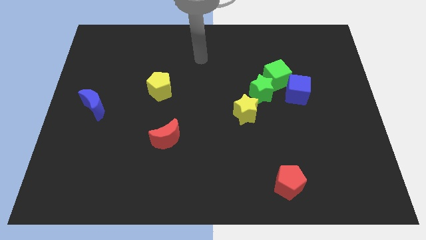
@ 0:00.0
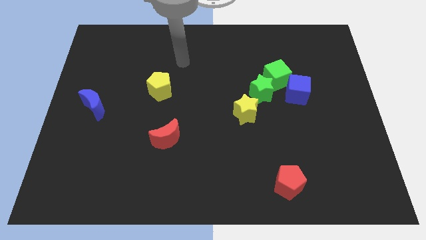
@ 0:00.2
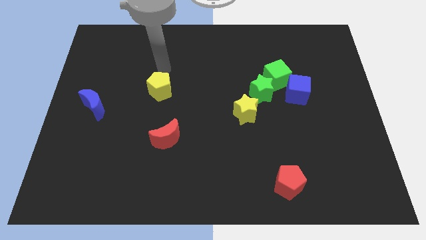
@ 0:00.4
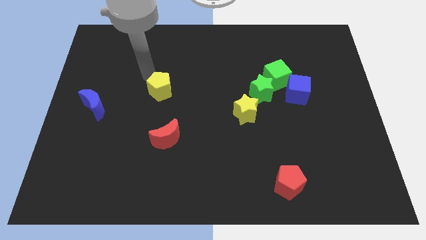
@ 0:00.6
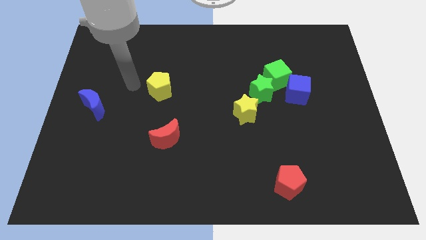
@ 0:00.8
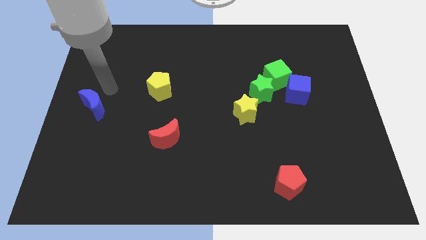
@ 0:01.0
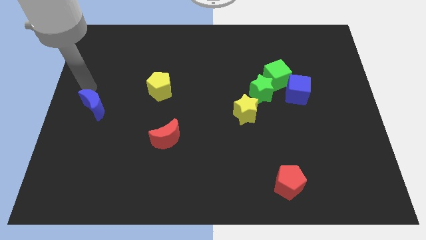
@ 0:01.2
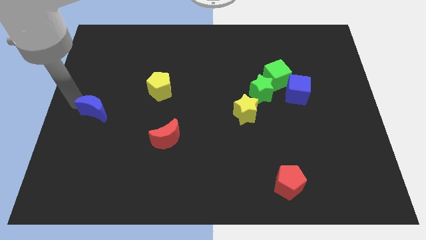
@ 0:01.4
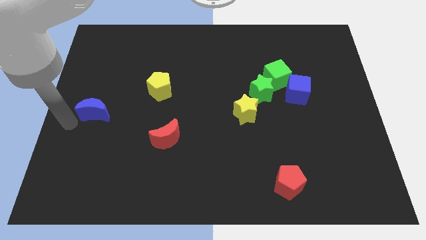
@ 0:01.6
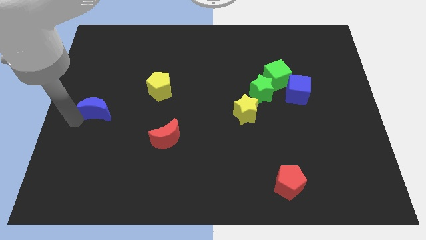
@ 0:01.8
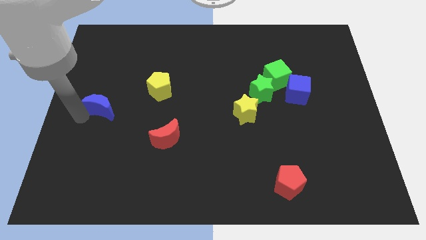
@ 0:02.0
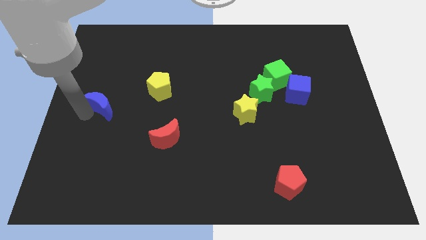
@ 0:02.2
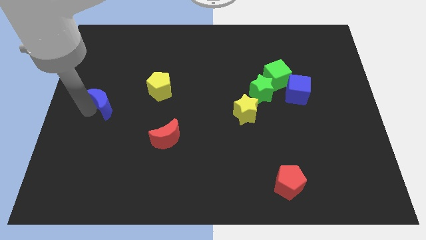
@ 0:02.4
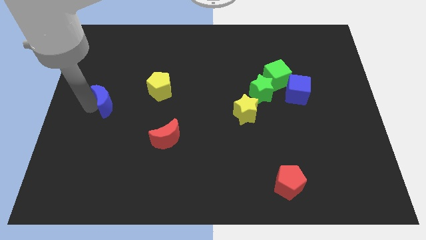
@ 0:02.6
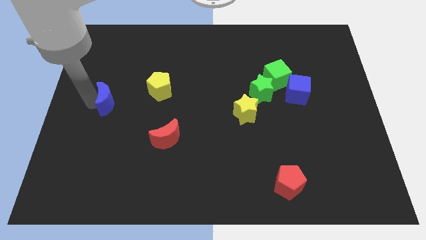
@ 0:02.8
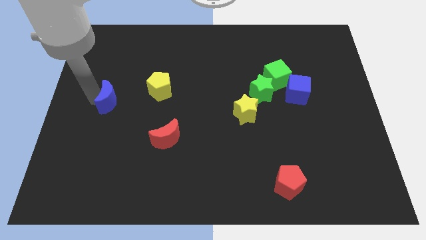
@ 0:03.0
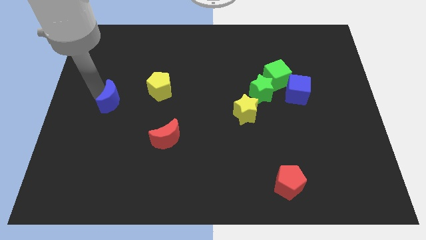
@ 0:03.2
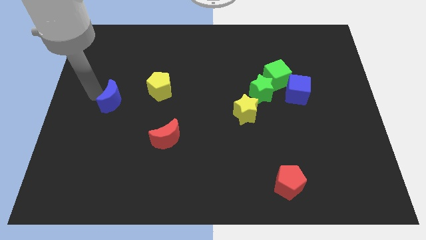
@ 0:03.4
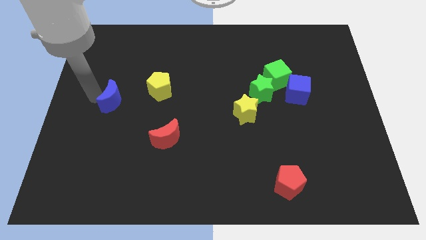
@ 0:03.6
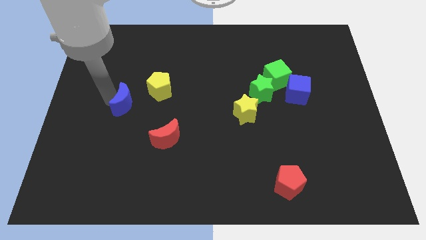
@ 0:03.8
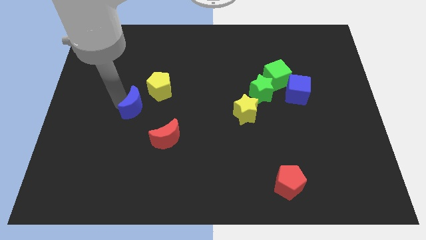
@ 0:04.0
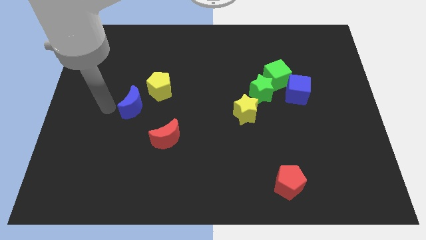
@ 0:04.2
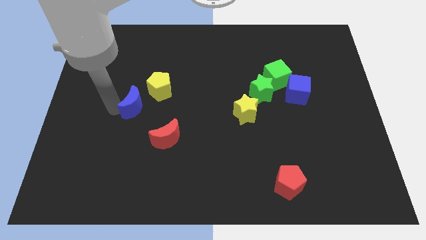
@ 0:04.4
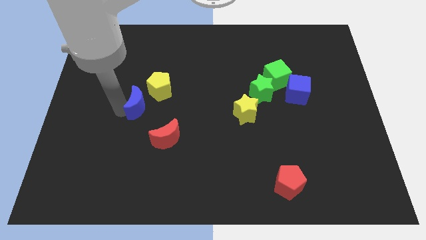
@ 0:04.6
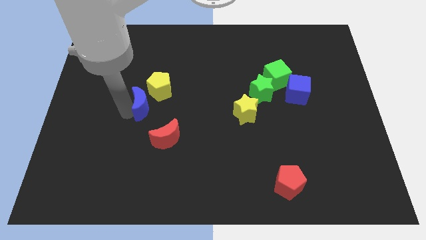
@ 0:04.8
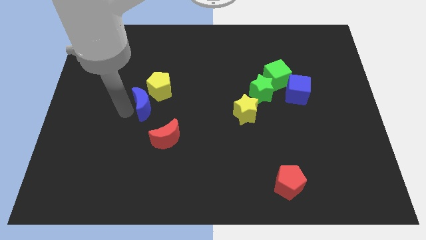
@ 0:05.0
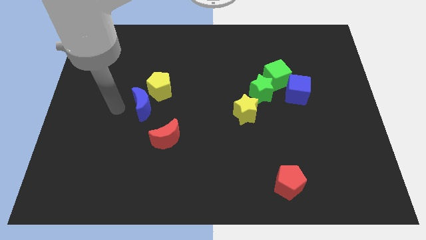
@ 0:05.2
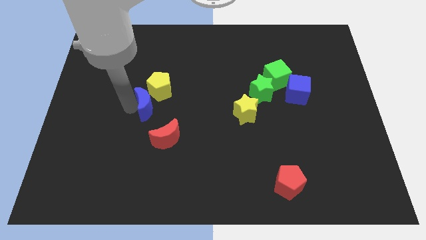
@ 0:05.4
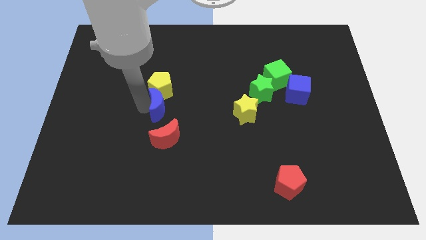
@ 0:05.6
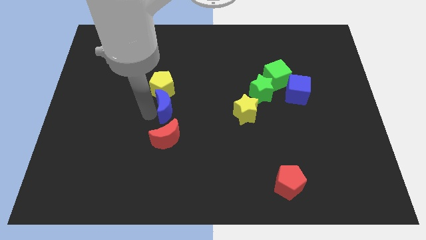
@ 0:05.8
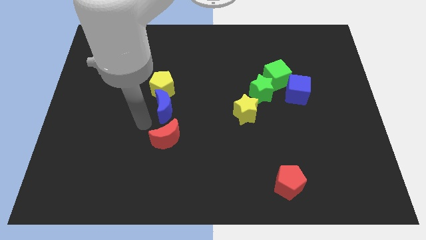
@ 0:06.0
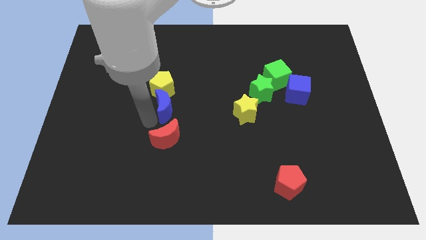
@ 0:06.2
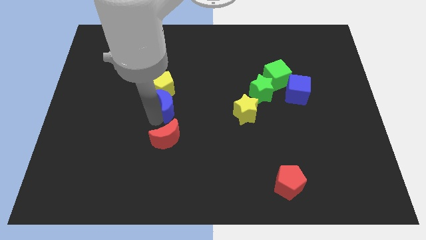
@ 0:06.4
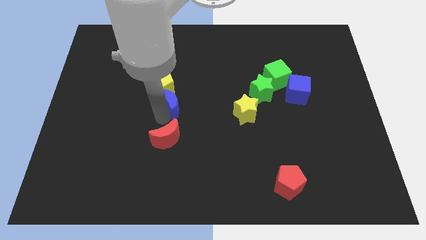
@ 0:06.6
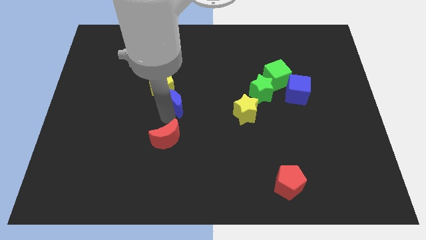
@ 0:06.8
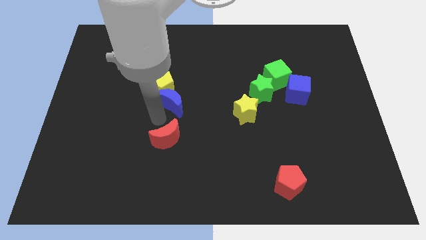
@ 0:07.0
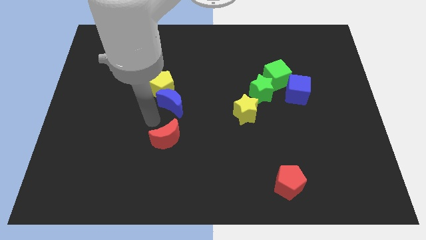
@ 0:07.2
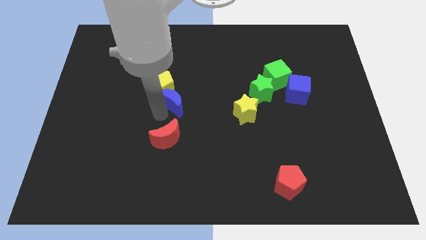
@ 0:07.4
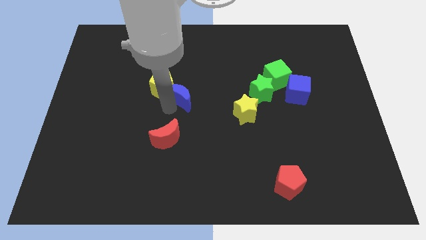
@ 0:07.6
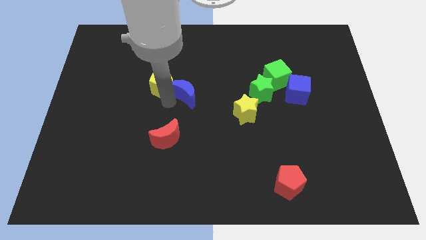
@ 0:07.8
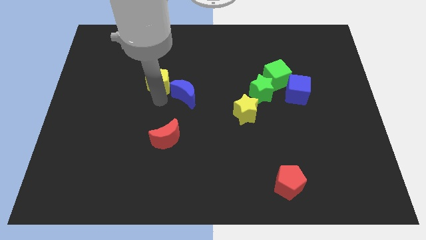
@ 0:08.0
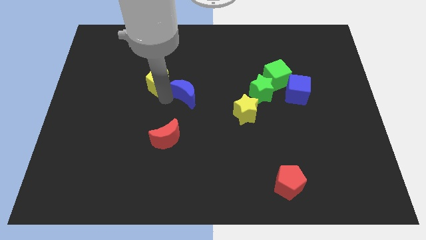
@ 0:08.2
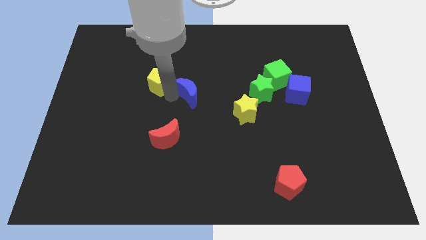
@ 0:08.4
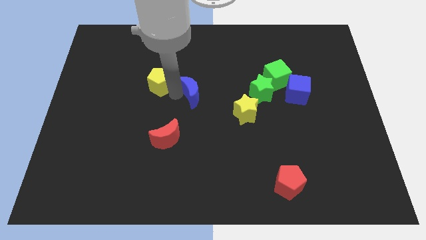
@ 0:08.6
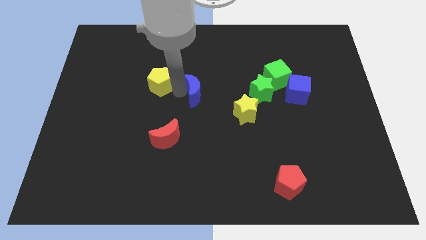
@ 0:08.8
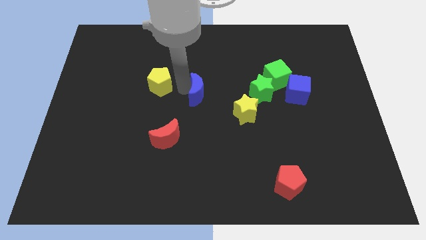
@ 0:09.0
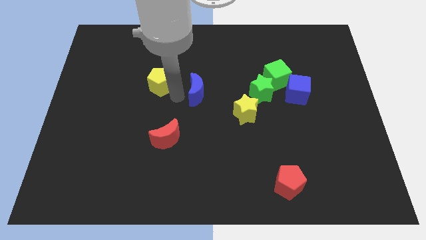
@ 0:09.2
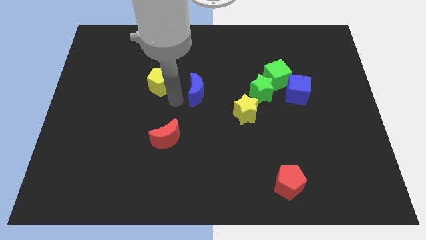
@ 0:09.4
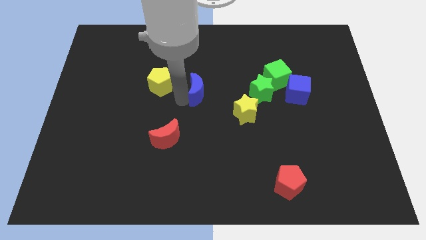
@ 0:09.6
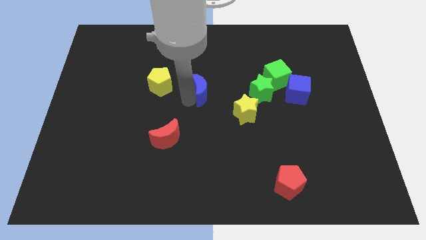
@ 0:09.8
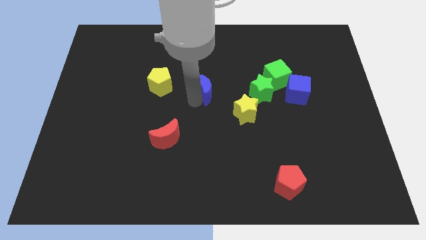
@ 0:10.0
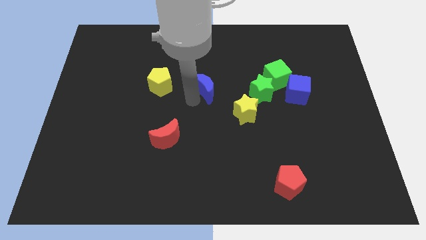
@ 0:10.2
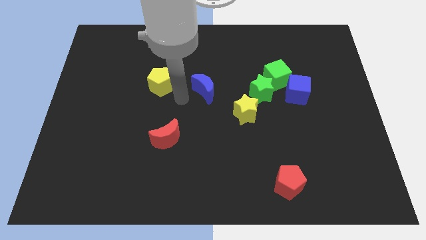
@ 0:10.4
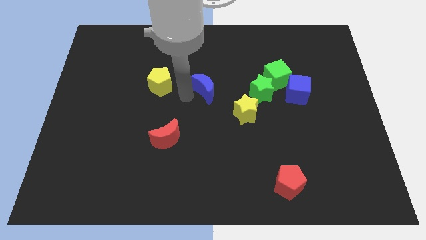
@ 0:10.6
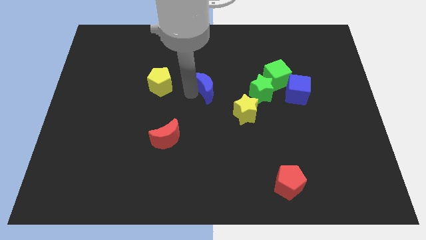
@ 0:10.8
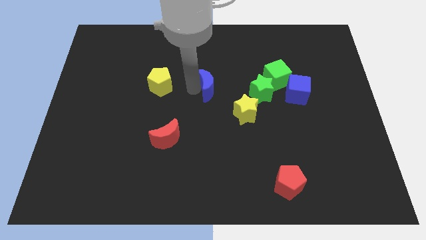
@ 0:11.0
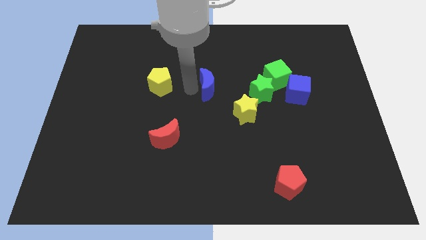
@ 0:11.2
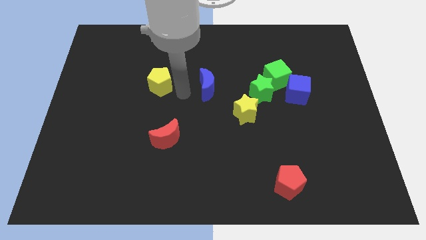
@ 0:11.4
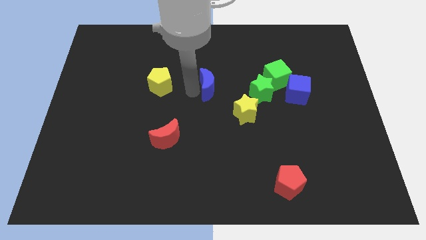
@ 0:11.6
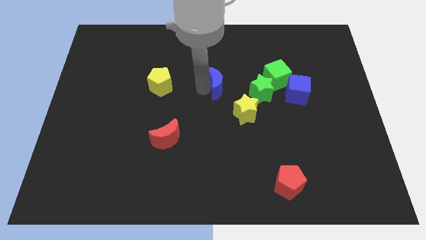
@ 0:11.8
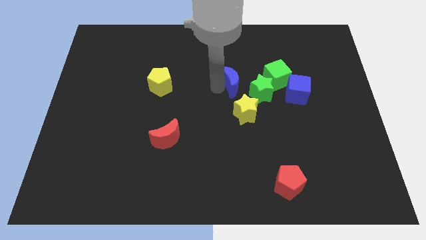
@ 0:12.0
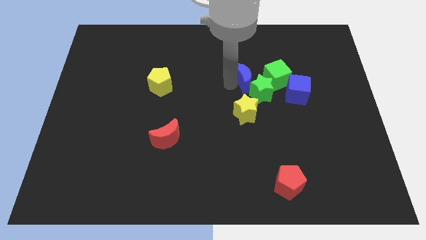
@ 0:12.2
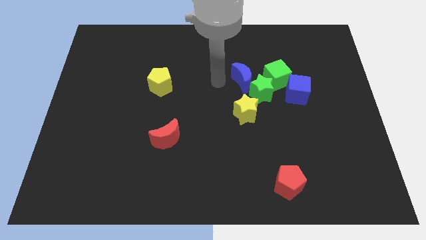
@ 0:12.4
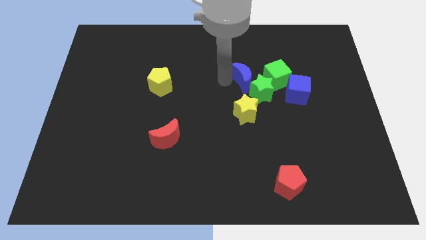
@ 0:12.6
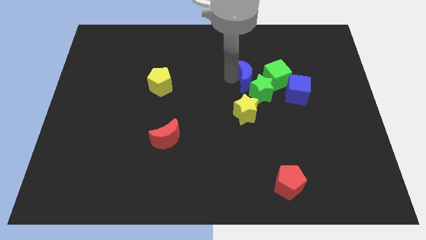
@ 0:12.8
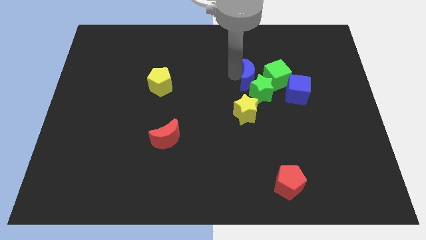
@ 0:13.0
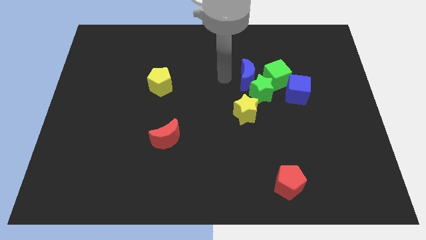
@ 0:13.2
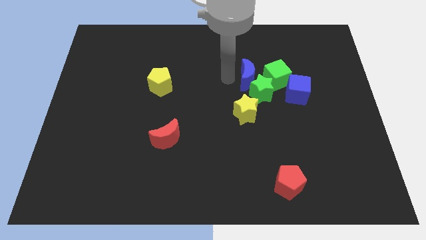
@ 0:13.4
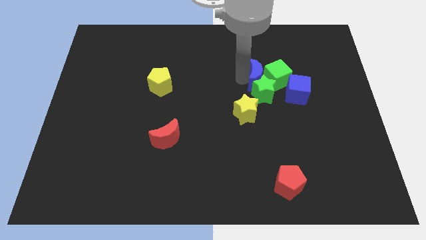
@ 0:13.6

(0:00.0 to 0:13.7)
push the blue moon close to the green cube
